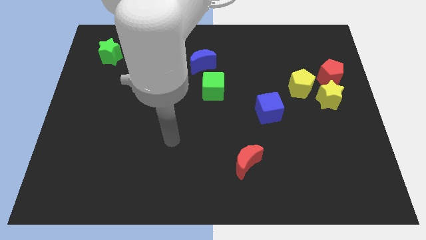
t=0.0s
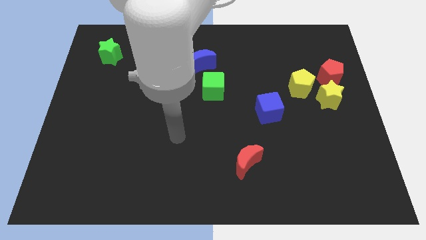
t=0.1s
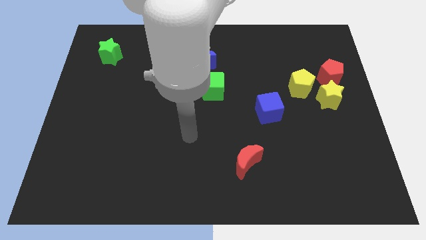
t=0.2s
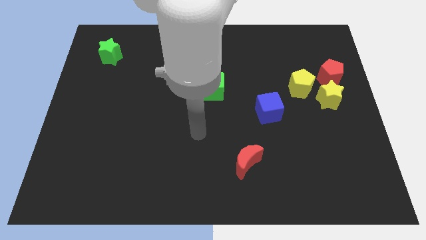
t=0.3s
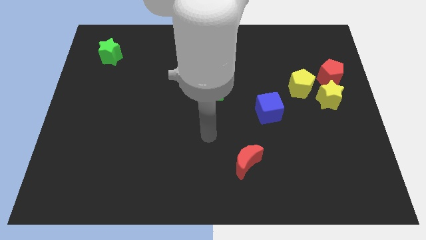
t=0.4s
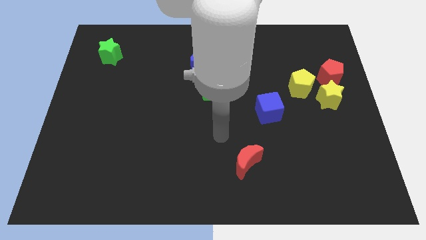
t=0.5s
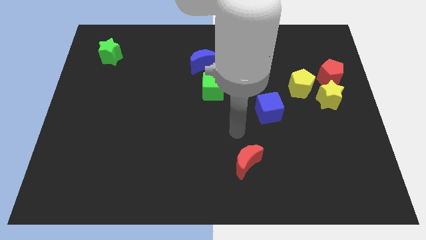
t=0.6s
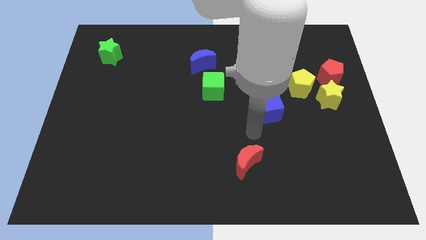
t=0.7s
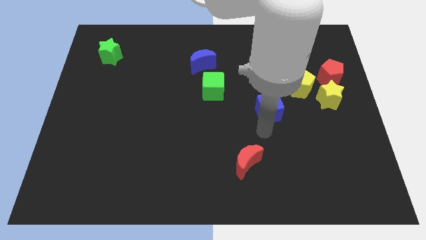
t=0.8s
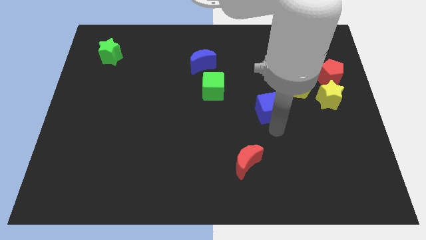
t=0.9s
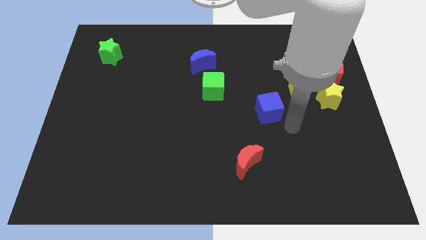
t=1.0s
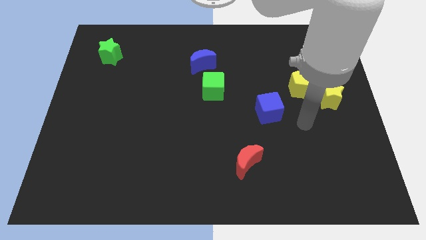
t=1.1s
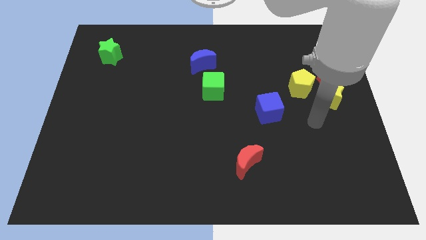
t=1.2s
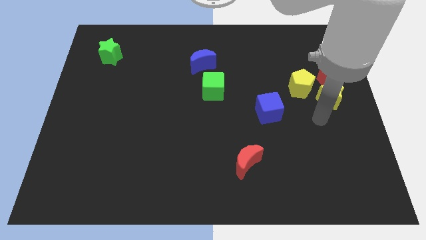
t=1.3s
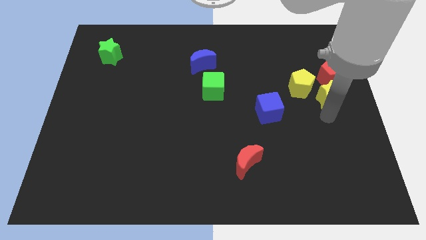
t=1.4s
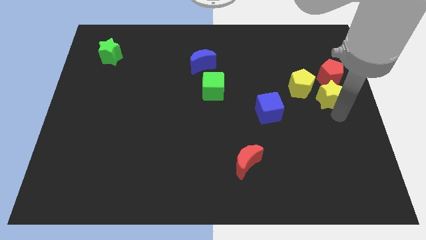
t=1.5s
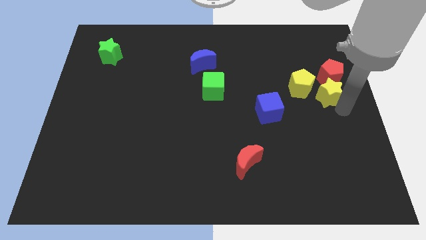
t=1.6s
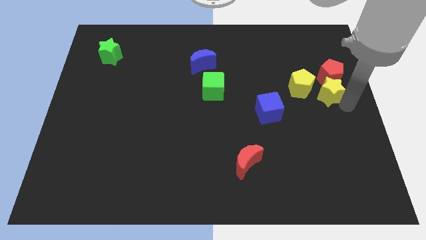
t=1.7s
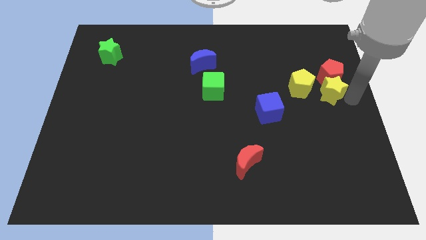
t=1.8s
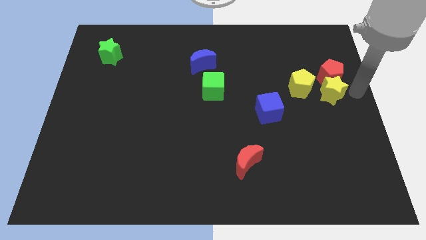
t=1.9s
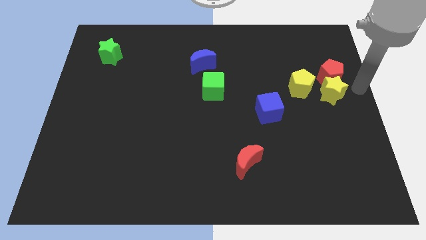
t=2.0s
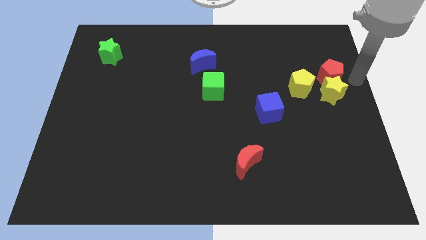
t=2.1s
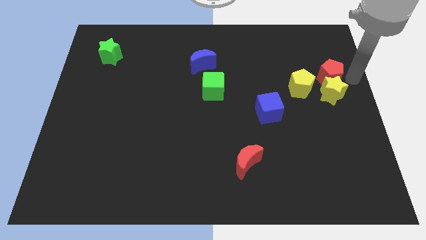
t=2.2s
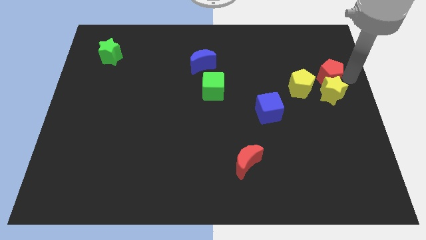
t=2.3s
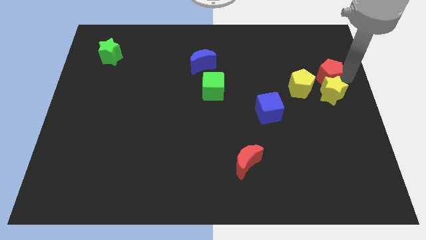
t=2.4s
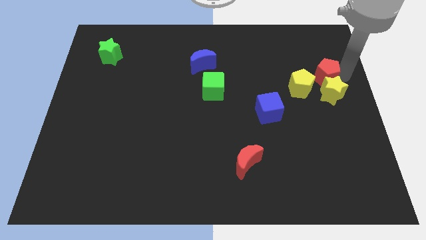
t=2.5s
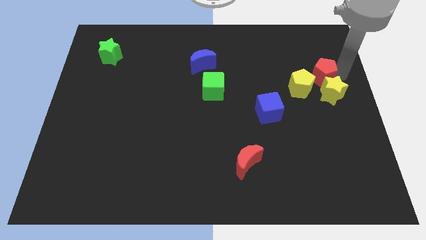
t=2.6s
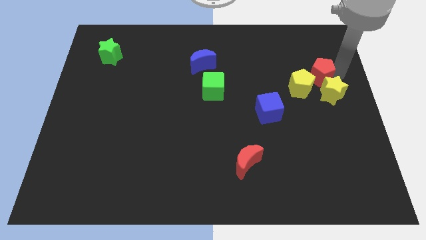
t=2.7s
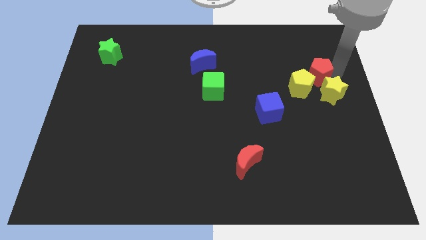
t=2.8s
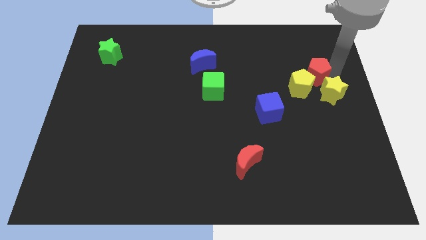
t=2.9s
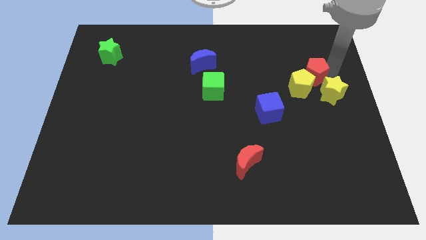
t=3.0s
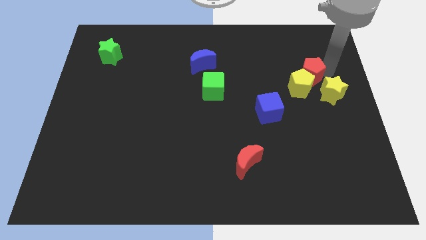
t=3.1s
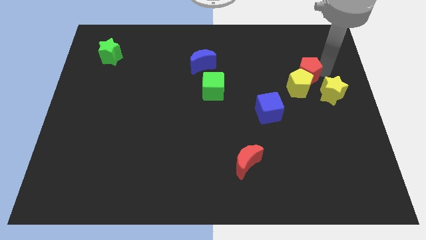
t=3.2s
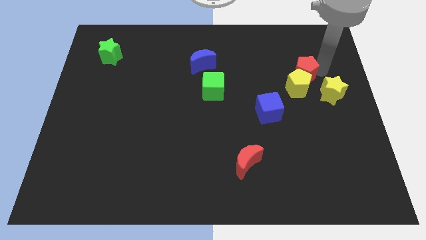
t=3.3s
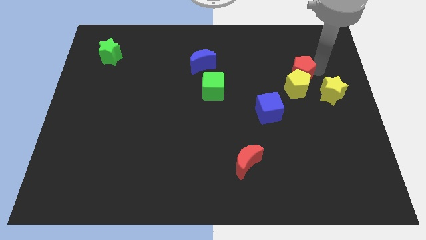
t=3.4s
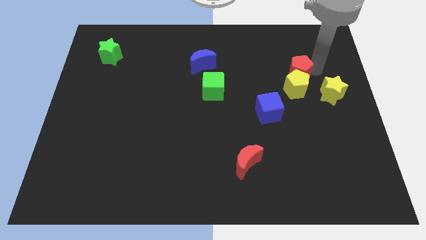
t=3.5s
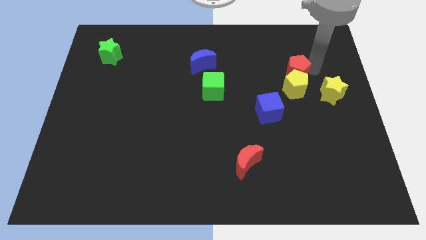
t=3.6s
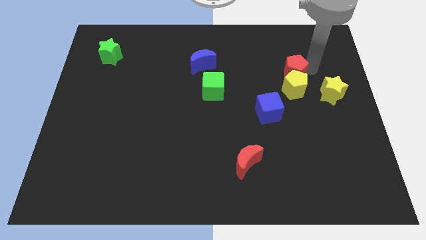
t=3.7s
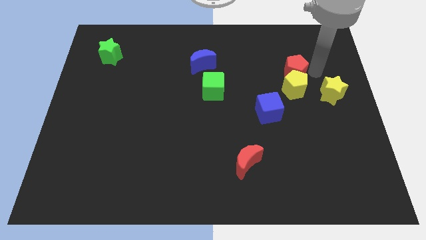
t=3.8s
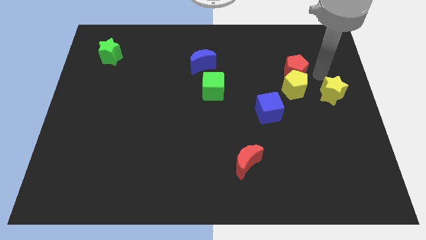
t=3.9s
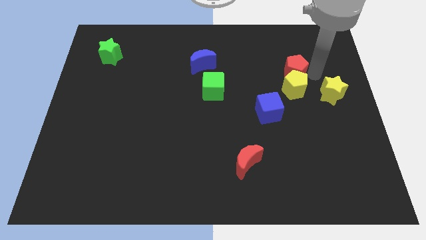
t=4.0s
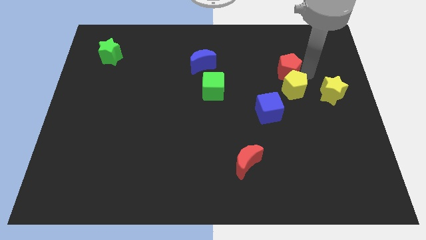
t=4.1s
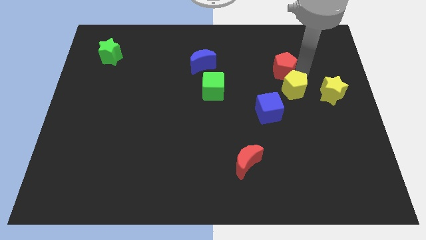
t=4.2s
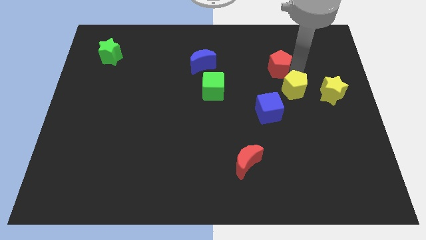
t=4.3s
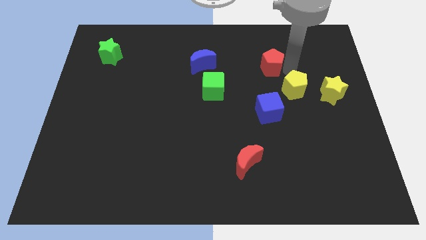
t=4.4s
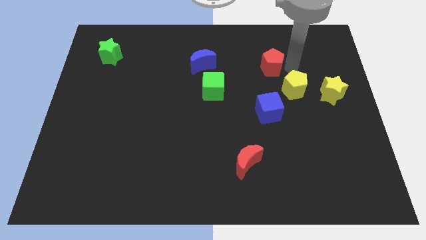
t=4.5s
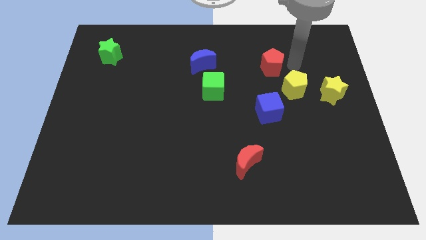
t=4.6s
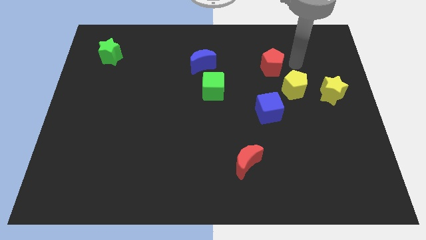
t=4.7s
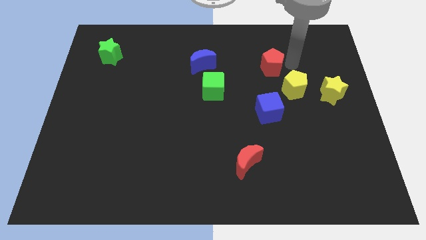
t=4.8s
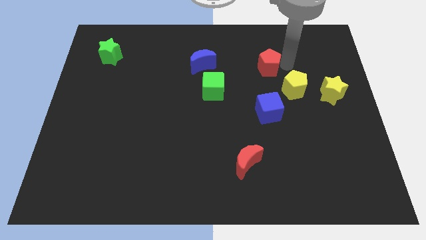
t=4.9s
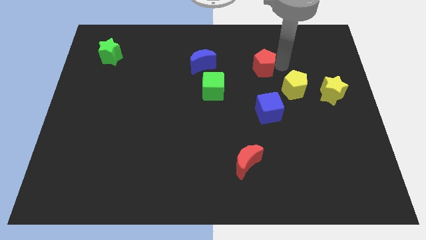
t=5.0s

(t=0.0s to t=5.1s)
move the red pentagon just right of the blue moon

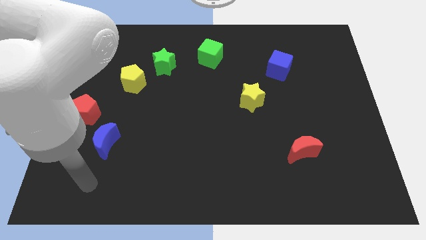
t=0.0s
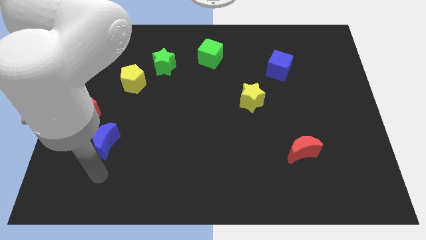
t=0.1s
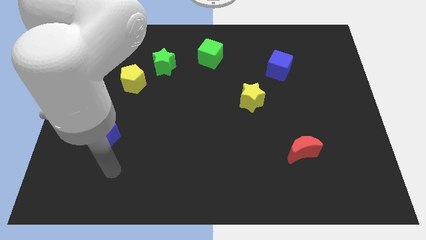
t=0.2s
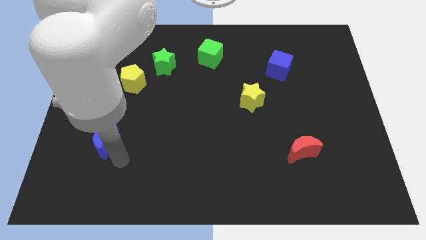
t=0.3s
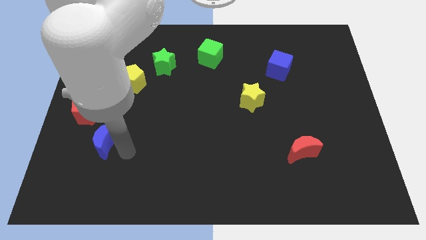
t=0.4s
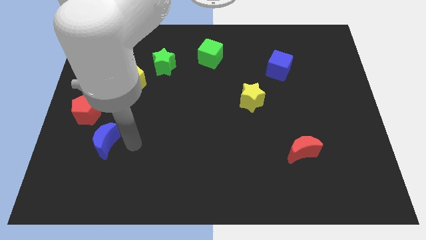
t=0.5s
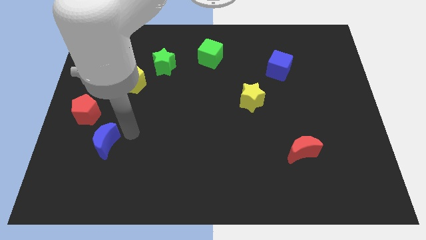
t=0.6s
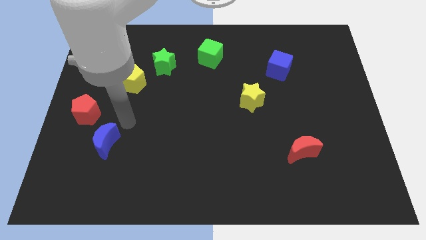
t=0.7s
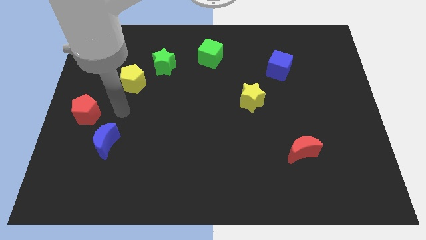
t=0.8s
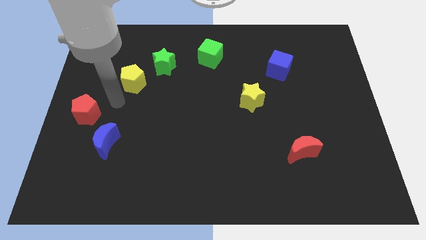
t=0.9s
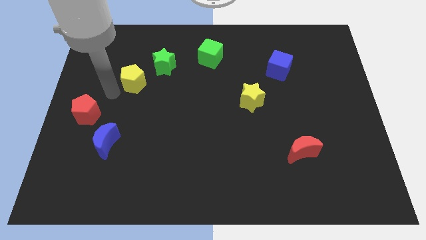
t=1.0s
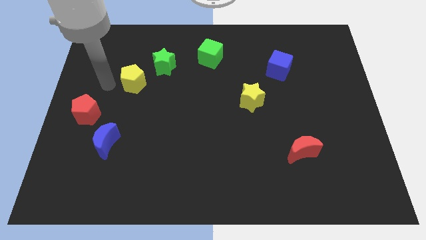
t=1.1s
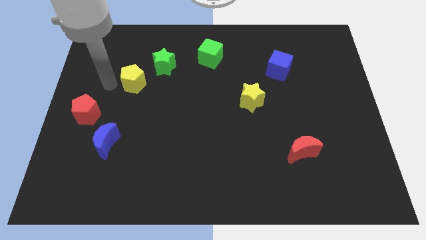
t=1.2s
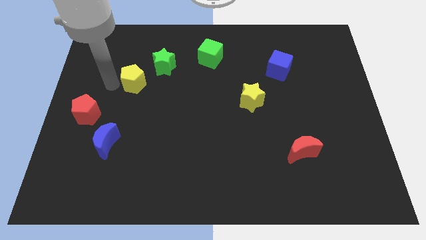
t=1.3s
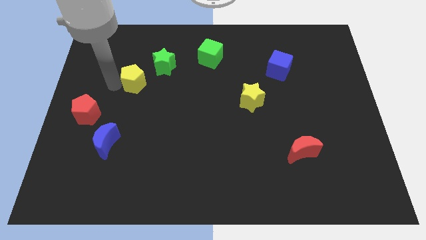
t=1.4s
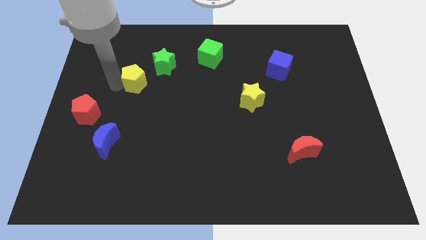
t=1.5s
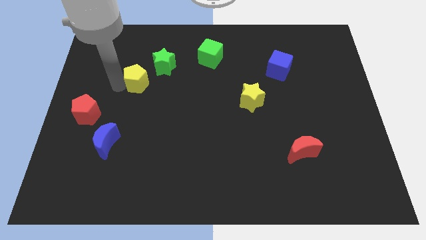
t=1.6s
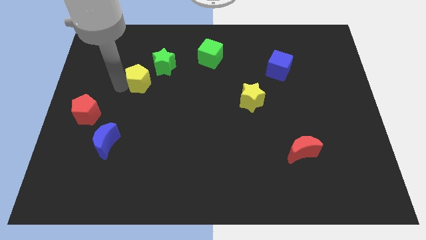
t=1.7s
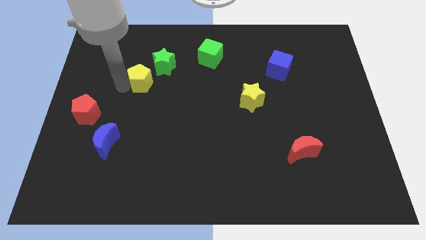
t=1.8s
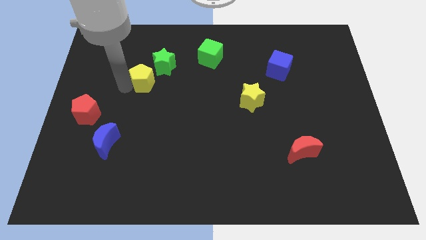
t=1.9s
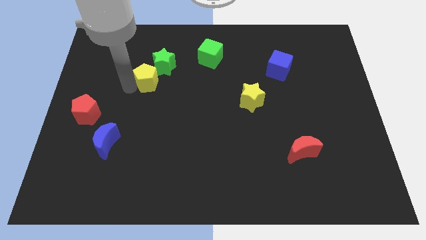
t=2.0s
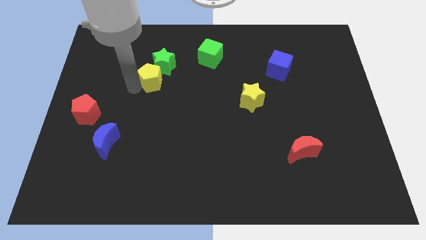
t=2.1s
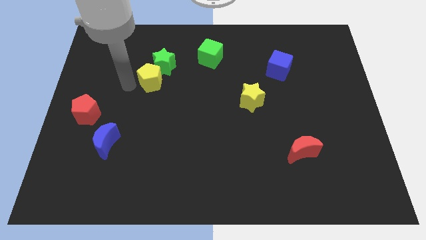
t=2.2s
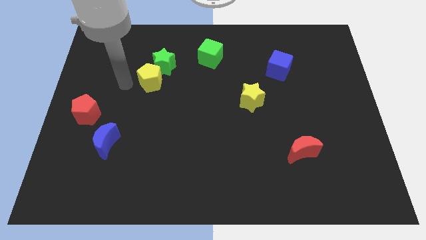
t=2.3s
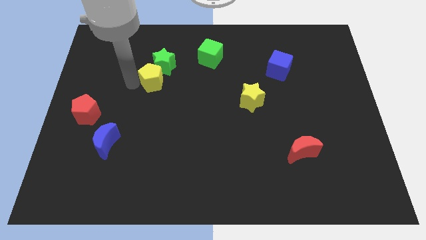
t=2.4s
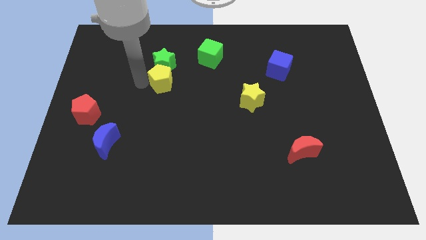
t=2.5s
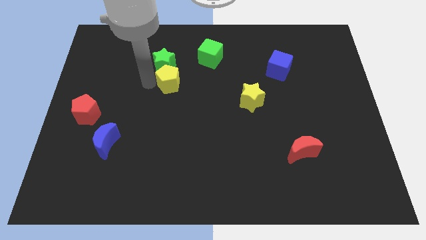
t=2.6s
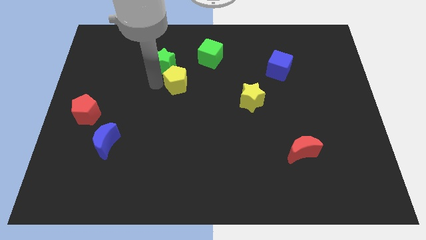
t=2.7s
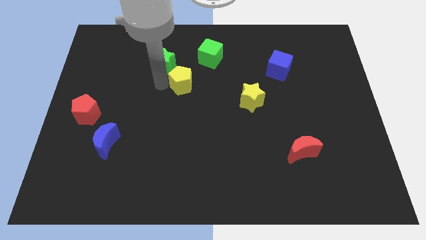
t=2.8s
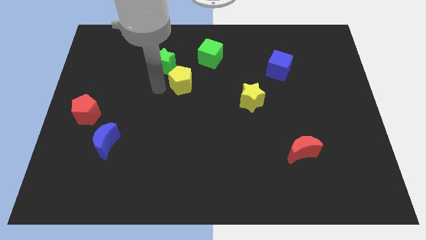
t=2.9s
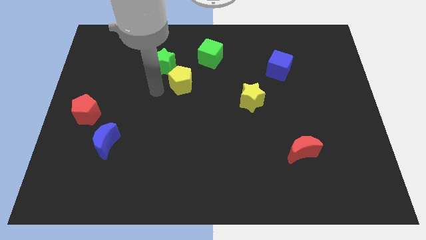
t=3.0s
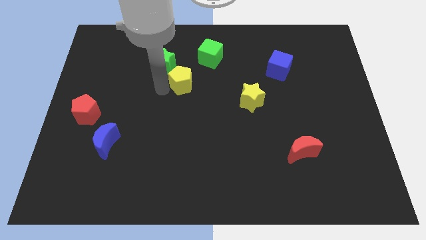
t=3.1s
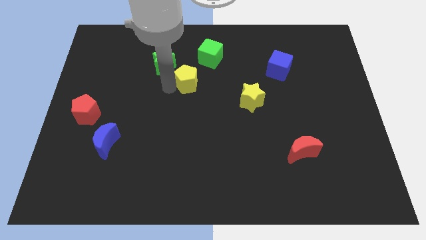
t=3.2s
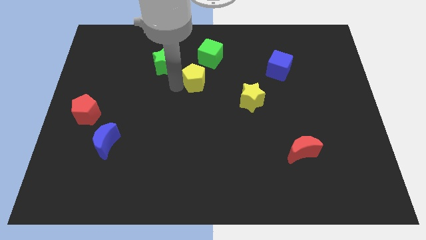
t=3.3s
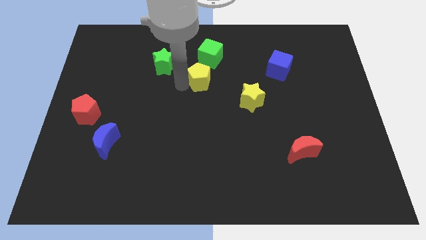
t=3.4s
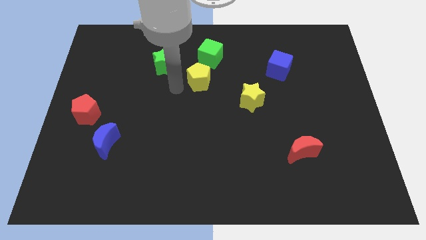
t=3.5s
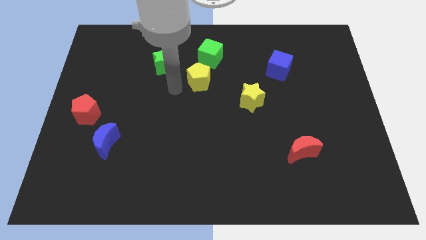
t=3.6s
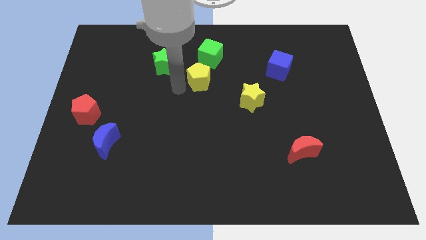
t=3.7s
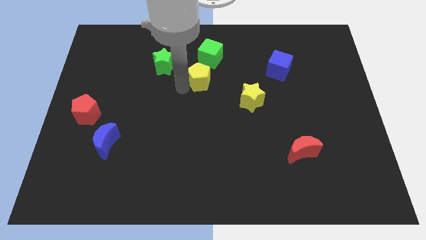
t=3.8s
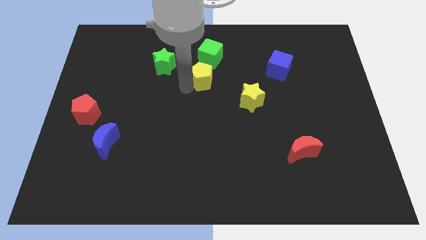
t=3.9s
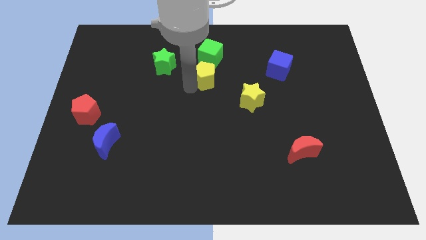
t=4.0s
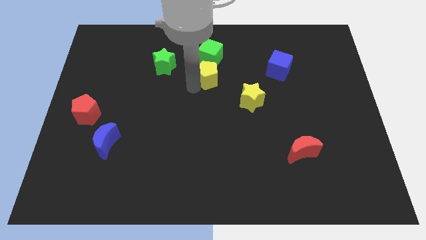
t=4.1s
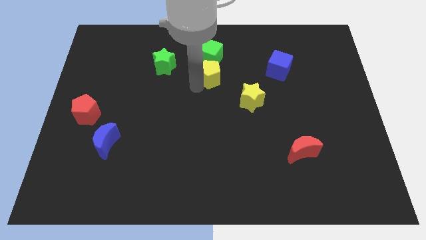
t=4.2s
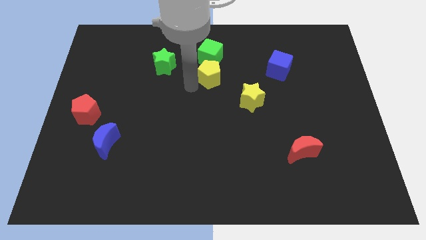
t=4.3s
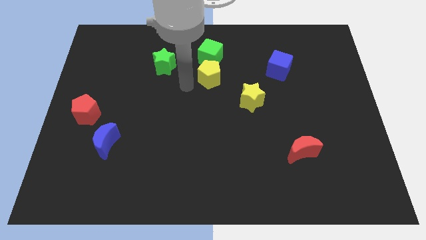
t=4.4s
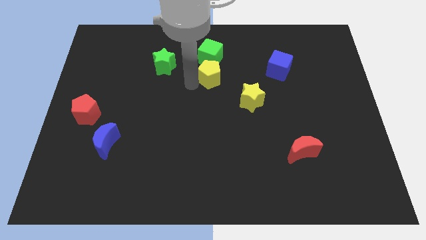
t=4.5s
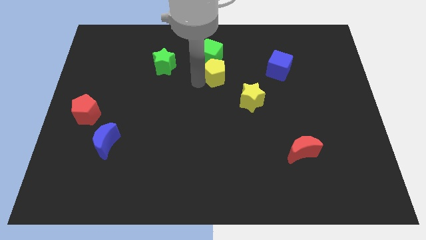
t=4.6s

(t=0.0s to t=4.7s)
push the yellow pentagon to the bottom right side of the green cube
